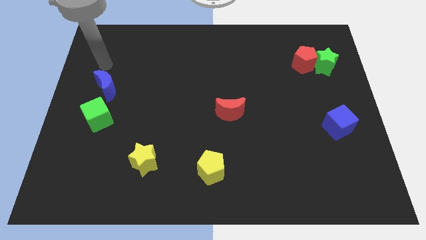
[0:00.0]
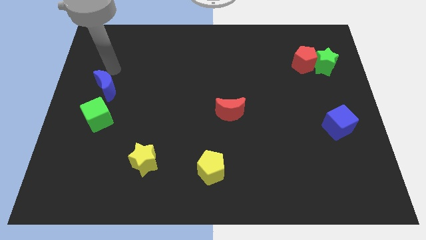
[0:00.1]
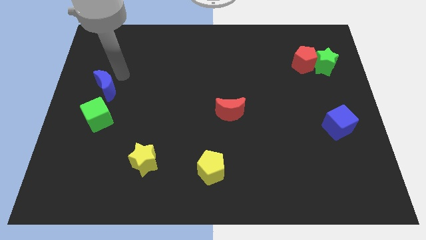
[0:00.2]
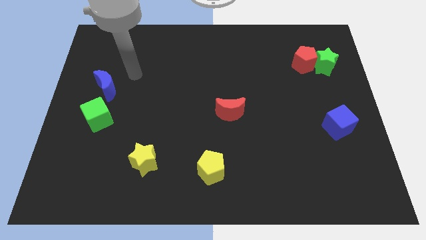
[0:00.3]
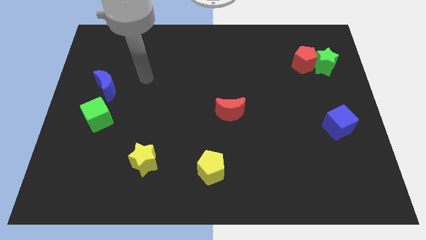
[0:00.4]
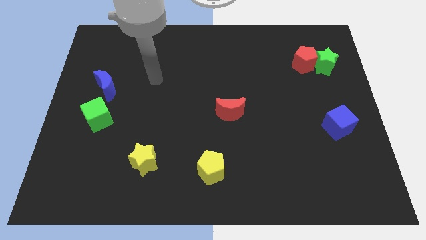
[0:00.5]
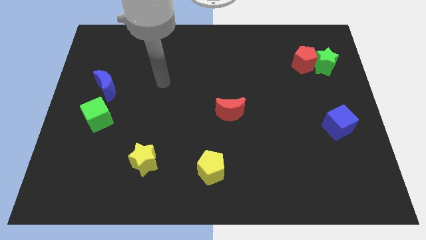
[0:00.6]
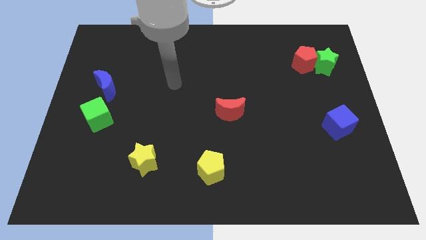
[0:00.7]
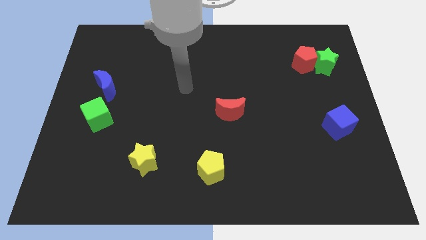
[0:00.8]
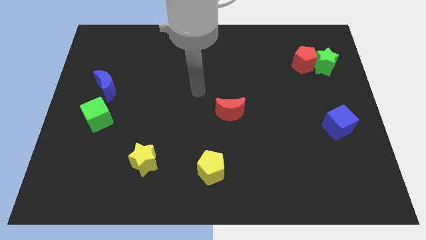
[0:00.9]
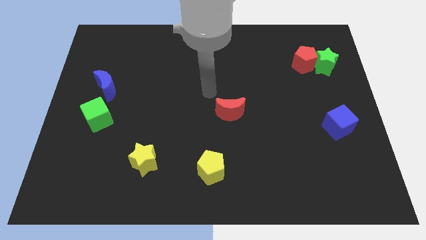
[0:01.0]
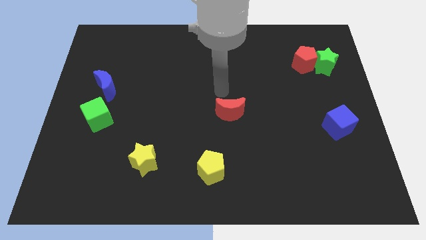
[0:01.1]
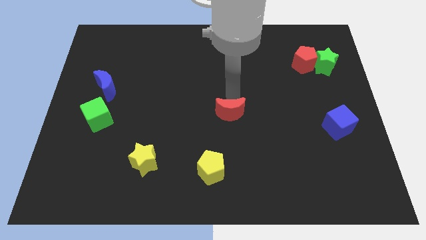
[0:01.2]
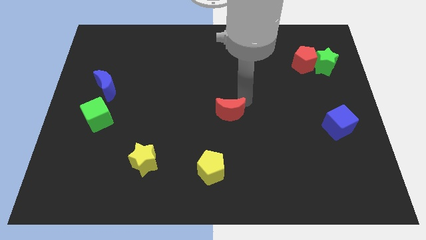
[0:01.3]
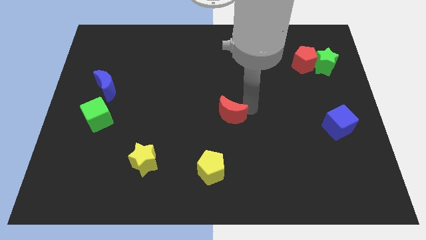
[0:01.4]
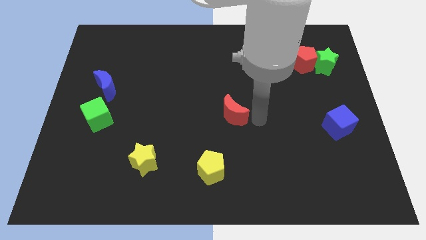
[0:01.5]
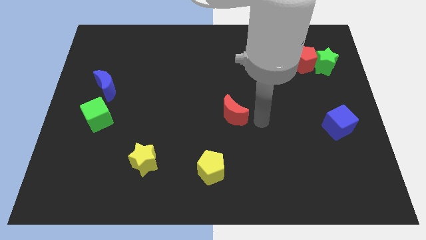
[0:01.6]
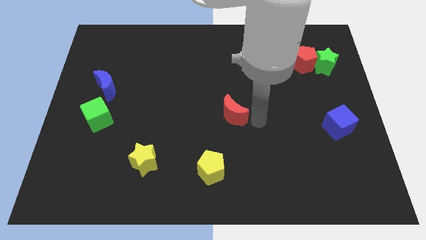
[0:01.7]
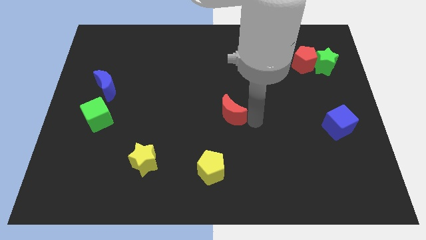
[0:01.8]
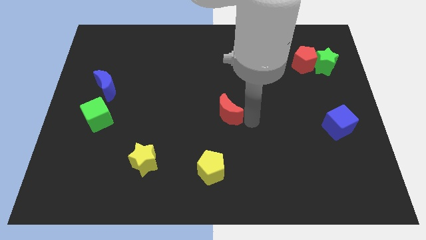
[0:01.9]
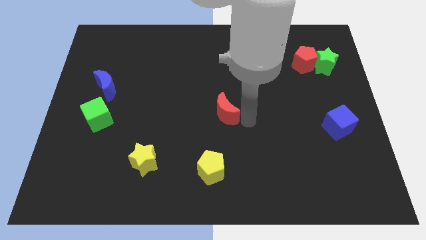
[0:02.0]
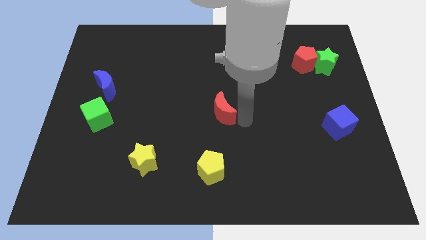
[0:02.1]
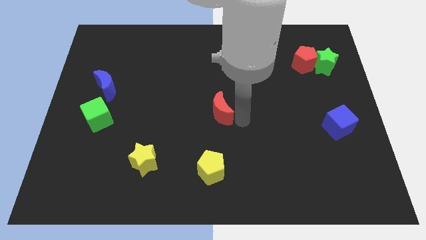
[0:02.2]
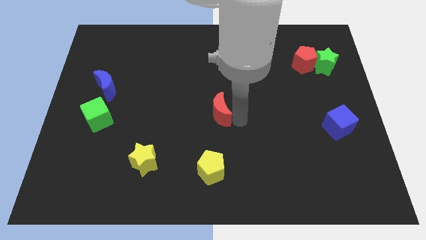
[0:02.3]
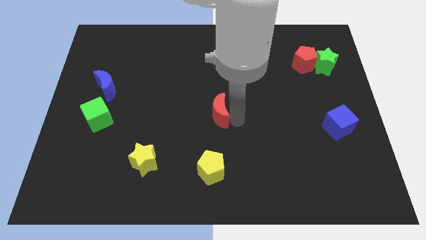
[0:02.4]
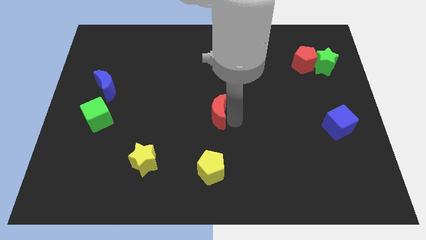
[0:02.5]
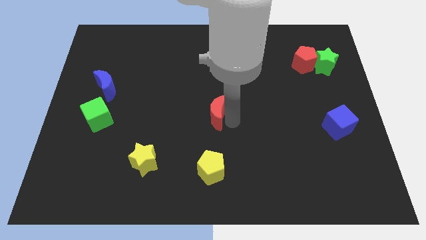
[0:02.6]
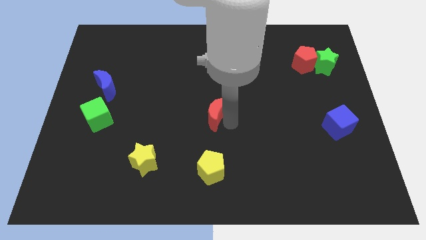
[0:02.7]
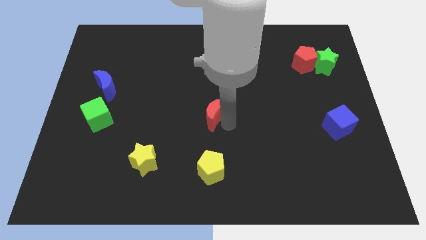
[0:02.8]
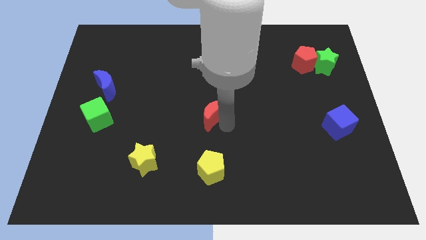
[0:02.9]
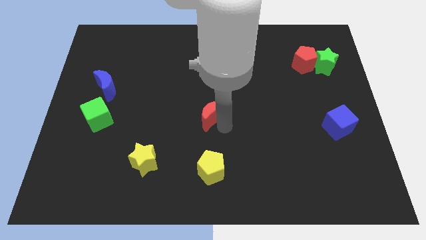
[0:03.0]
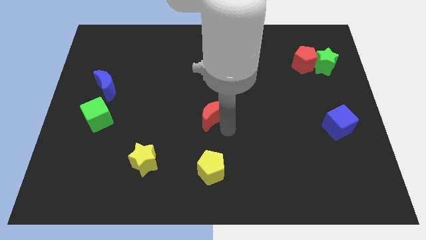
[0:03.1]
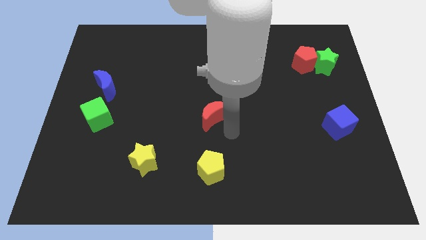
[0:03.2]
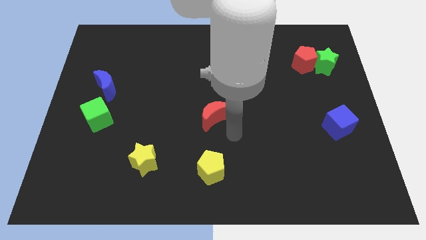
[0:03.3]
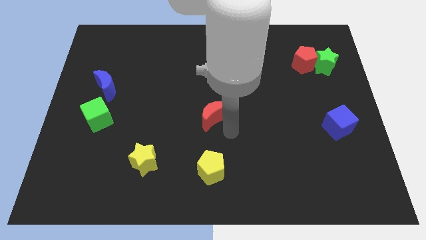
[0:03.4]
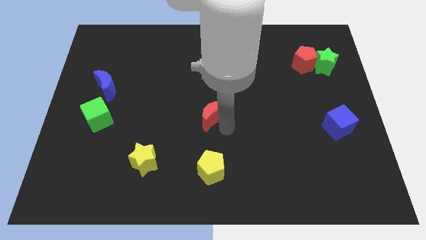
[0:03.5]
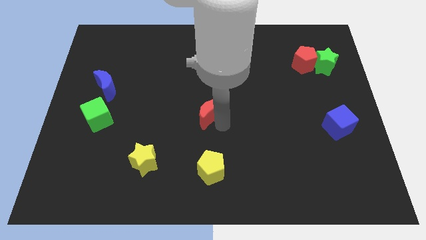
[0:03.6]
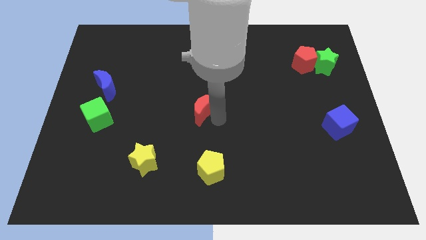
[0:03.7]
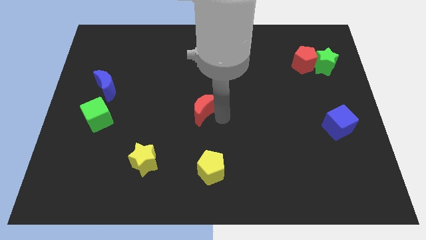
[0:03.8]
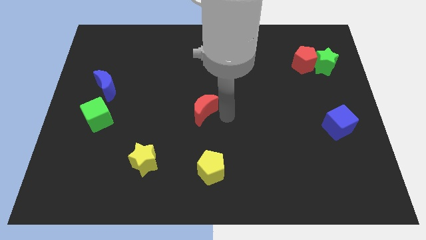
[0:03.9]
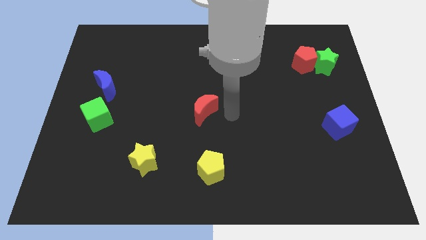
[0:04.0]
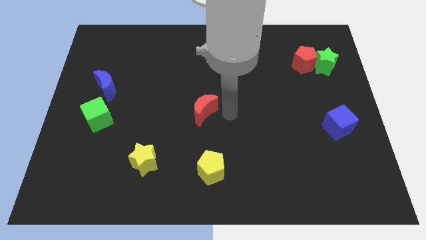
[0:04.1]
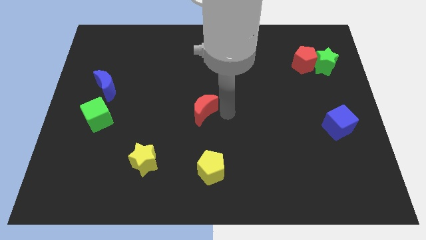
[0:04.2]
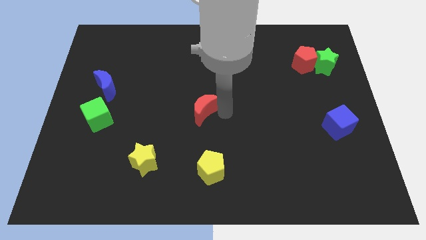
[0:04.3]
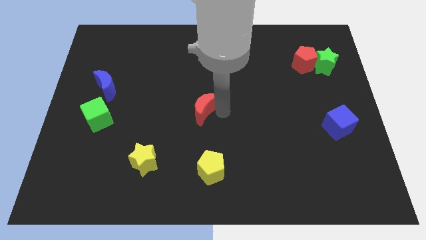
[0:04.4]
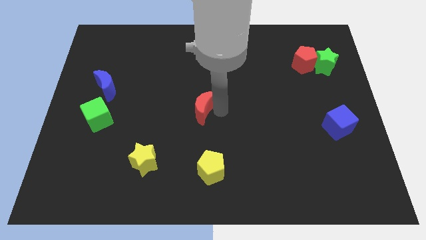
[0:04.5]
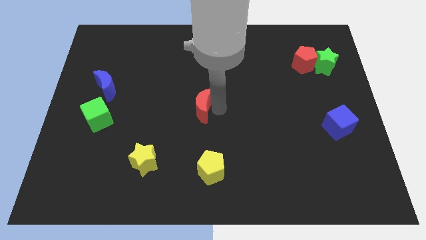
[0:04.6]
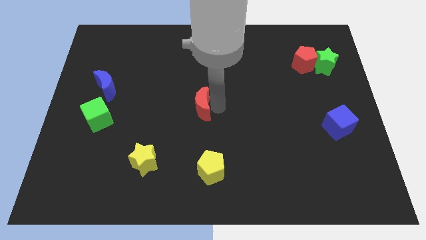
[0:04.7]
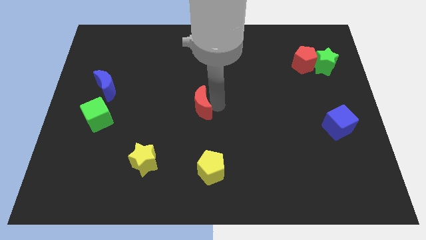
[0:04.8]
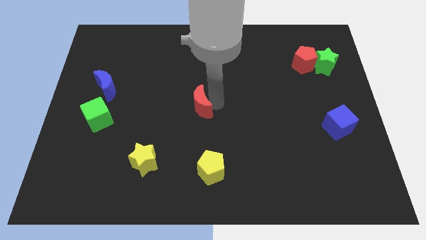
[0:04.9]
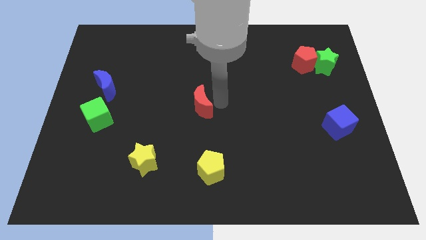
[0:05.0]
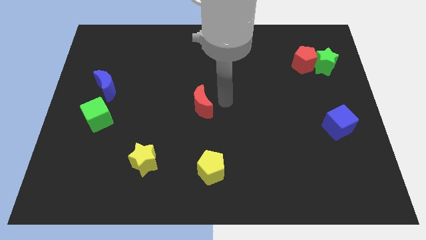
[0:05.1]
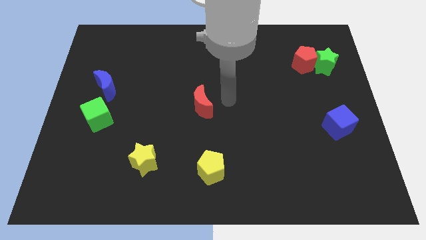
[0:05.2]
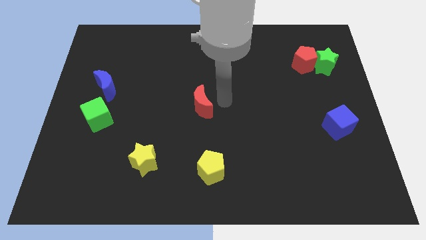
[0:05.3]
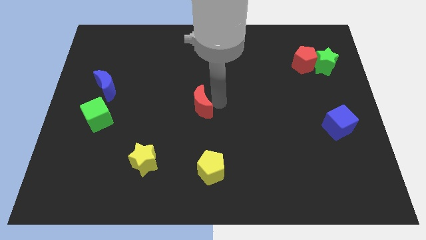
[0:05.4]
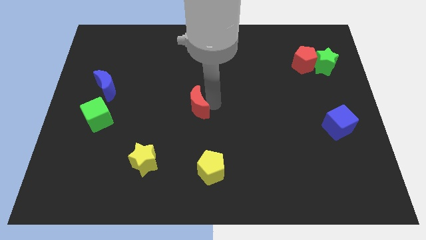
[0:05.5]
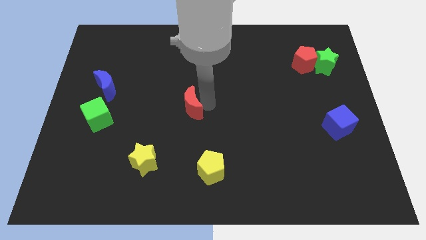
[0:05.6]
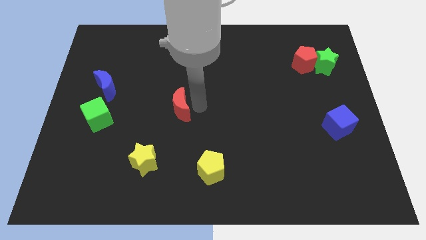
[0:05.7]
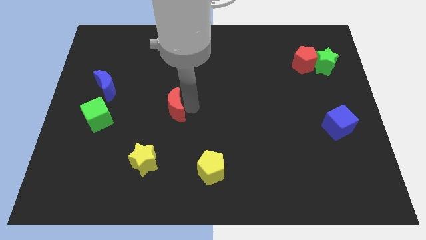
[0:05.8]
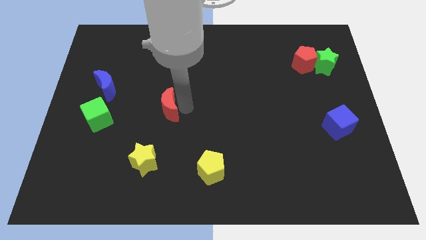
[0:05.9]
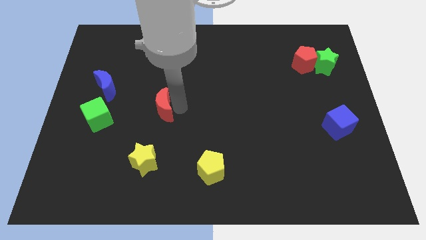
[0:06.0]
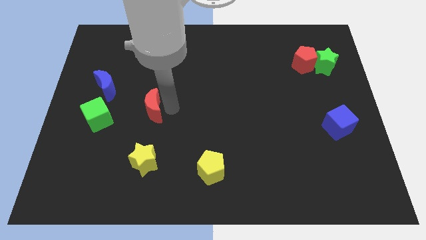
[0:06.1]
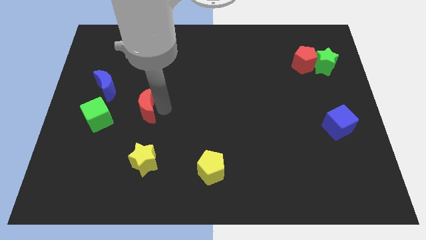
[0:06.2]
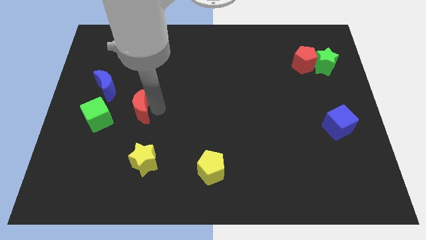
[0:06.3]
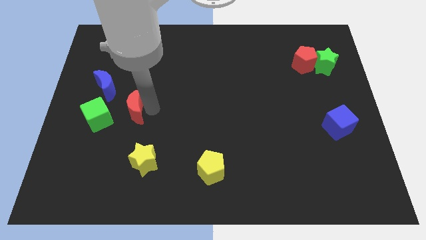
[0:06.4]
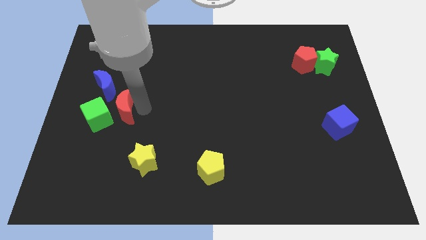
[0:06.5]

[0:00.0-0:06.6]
push the red moon towards the green cube
